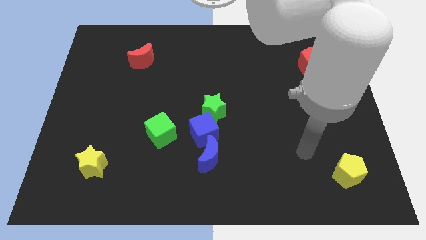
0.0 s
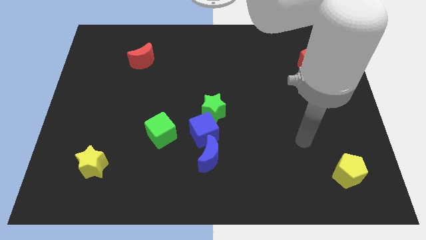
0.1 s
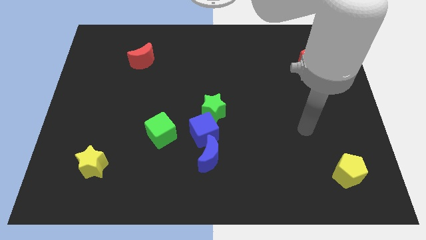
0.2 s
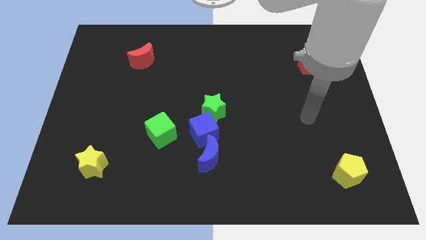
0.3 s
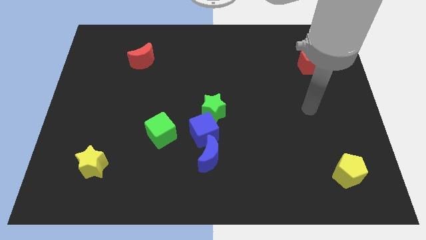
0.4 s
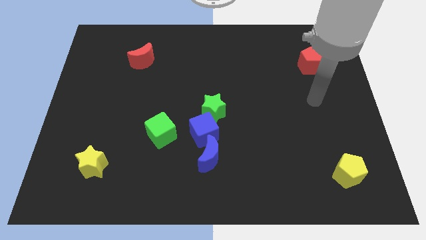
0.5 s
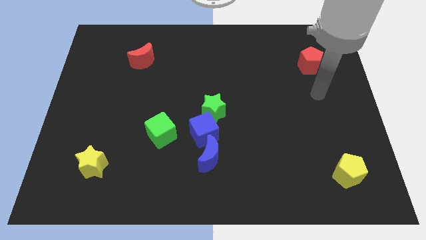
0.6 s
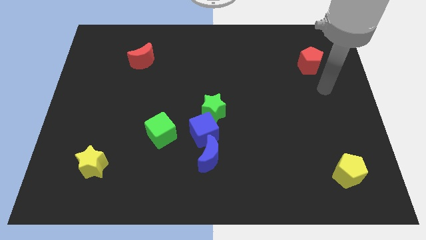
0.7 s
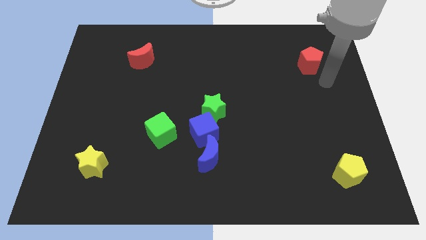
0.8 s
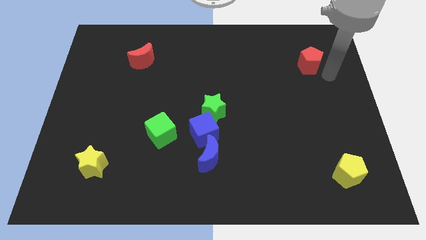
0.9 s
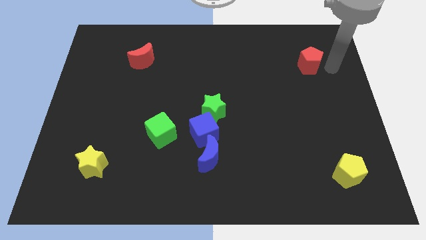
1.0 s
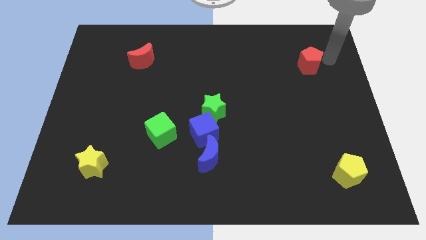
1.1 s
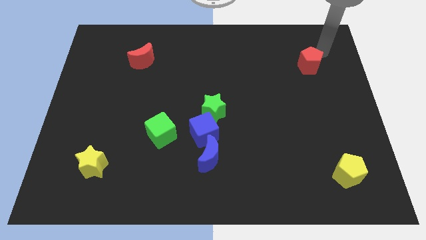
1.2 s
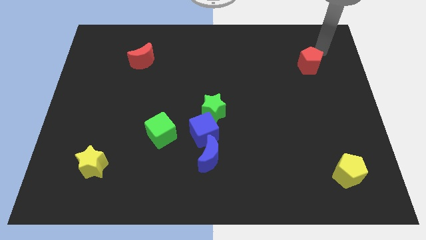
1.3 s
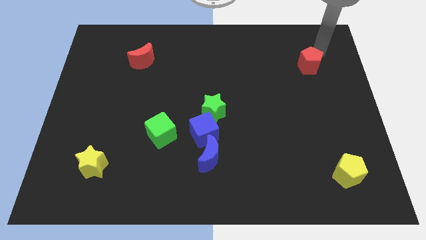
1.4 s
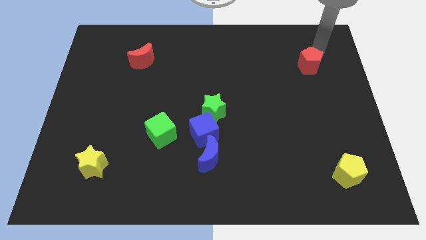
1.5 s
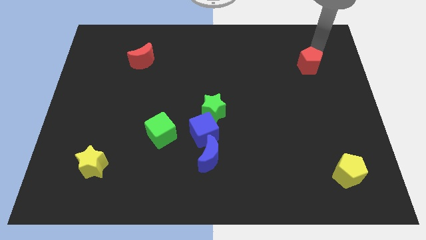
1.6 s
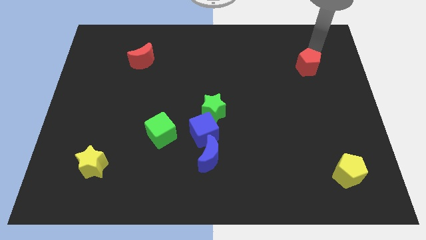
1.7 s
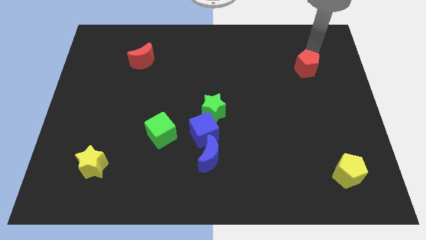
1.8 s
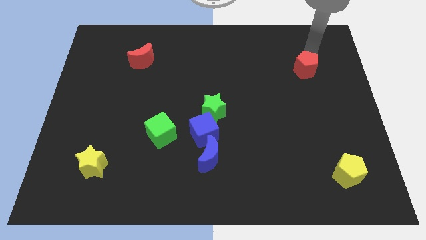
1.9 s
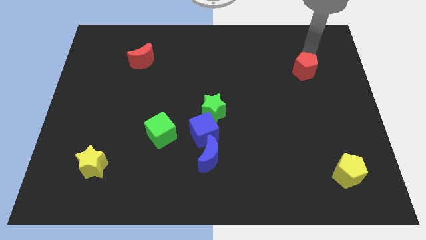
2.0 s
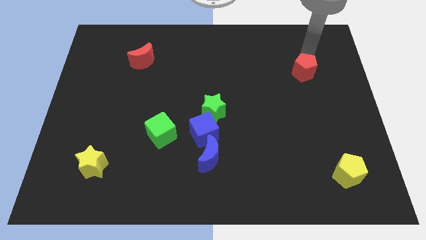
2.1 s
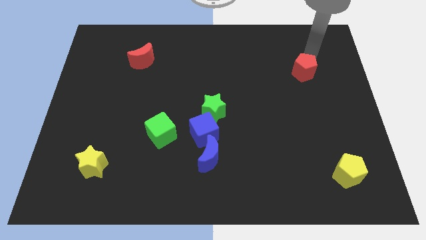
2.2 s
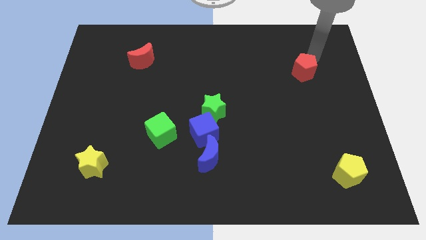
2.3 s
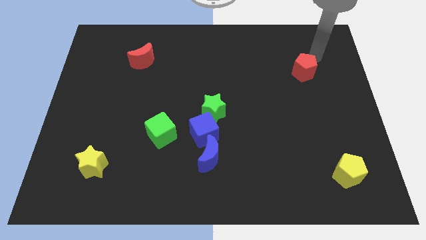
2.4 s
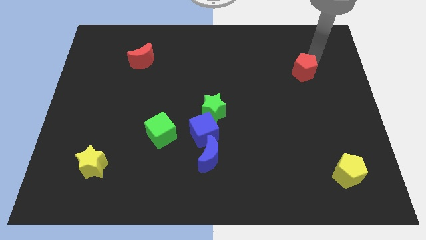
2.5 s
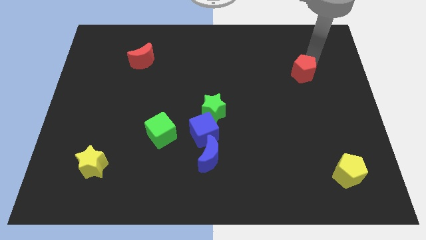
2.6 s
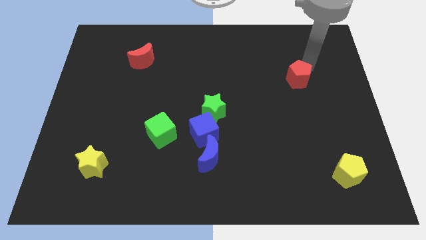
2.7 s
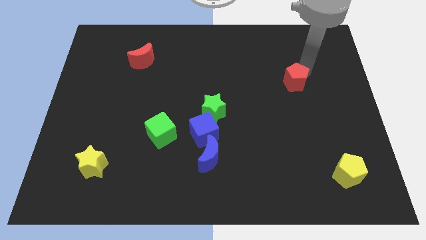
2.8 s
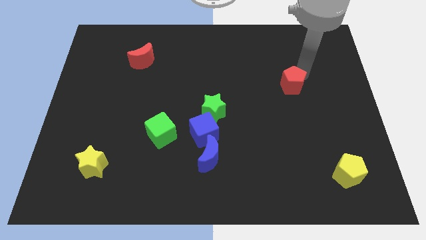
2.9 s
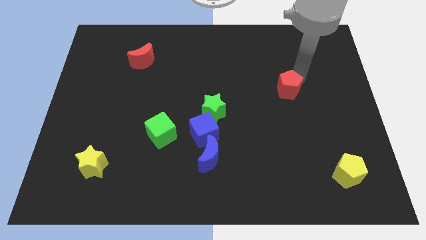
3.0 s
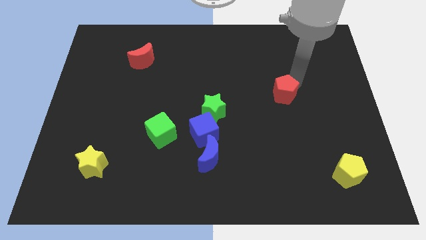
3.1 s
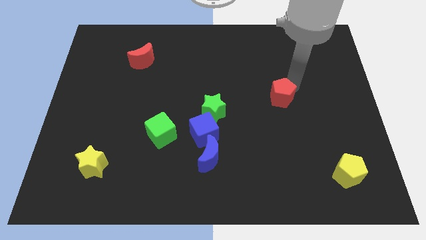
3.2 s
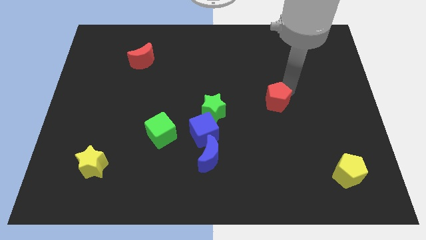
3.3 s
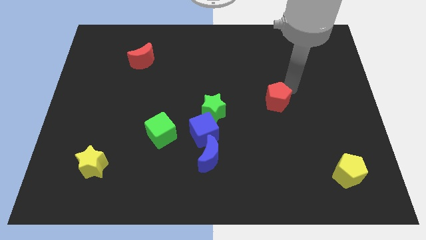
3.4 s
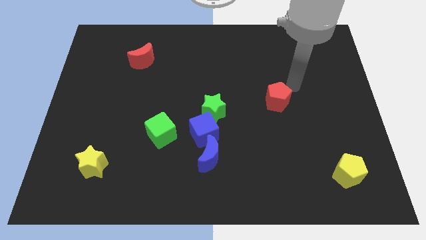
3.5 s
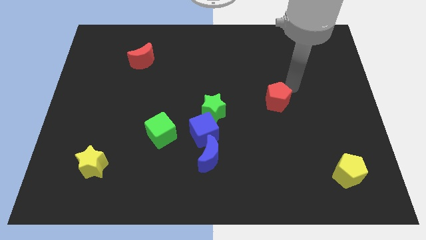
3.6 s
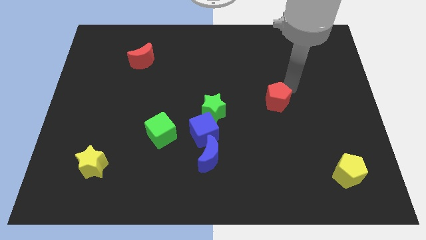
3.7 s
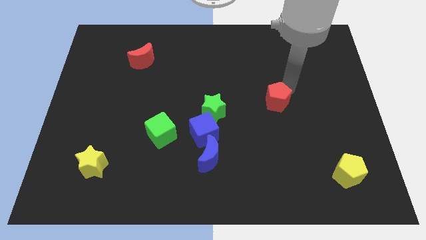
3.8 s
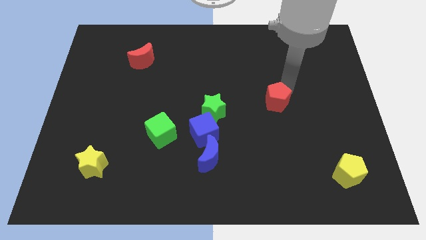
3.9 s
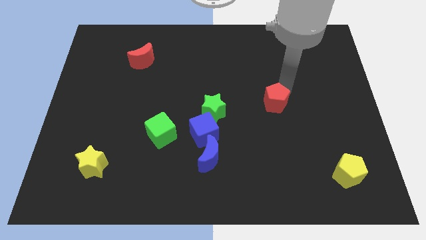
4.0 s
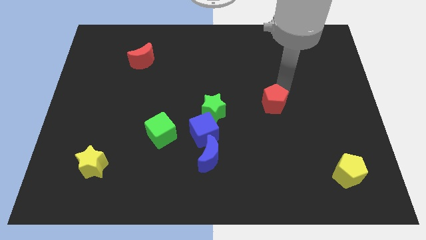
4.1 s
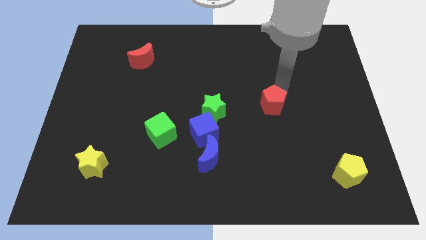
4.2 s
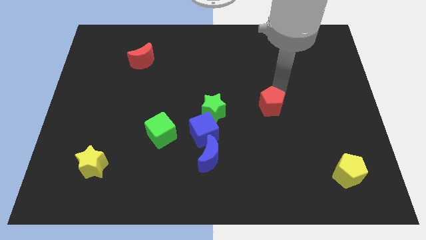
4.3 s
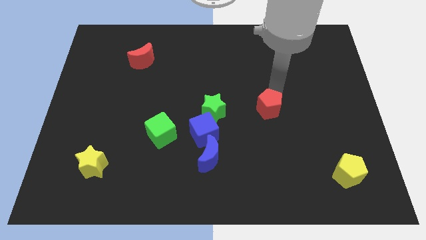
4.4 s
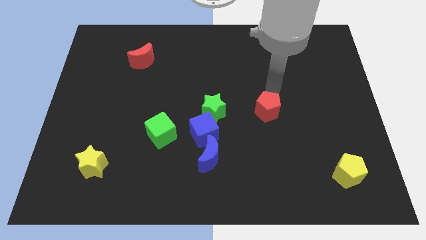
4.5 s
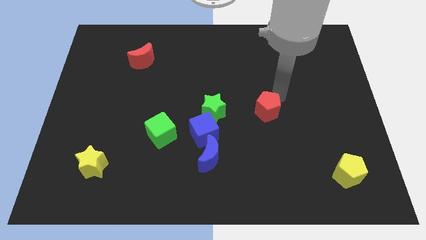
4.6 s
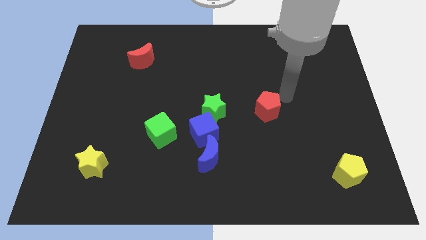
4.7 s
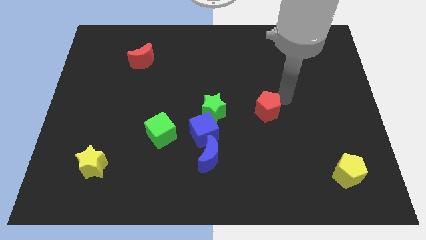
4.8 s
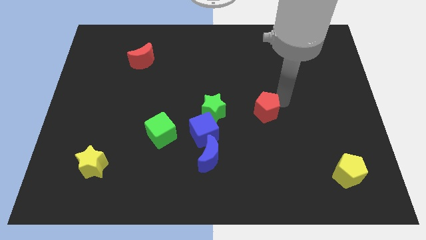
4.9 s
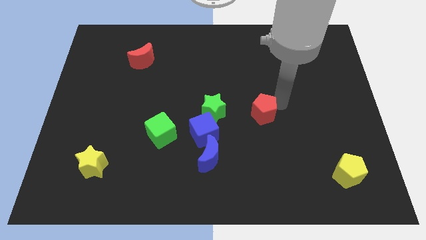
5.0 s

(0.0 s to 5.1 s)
slide the red pentagon down and to the left

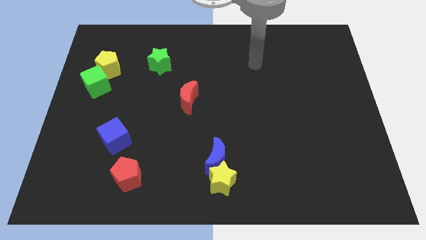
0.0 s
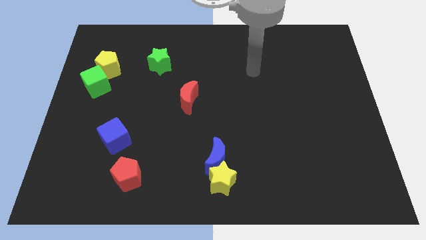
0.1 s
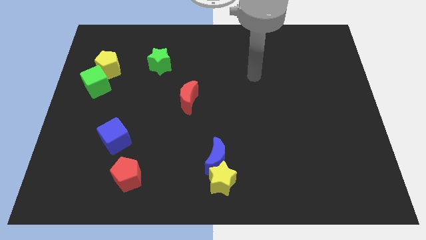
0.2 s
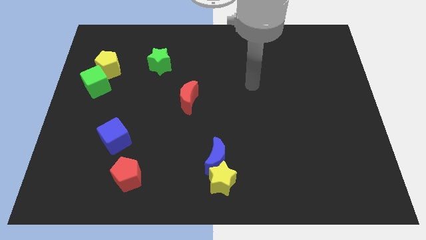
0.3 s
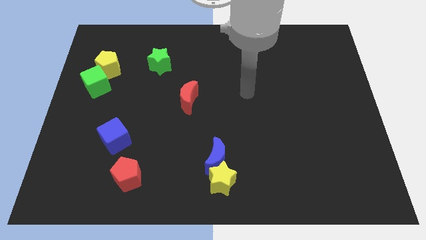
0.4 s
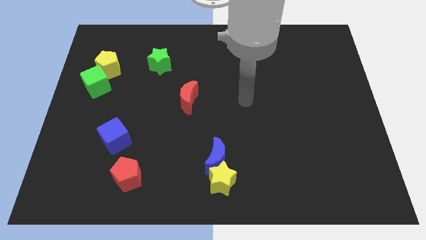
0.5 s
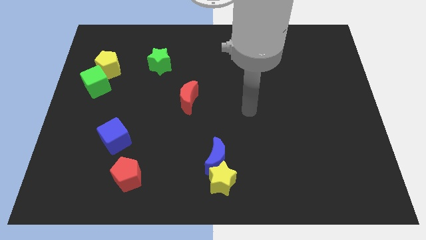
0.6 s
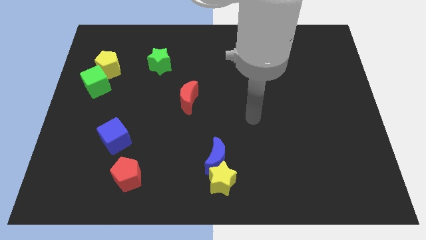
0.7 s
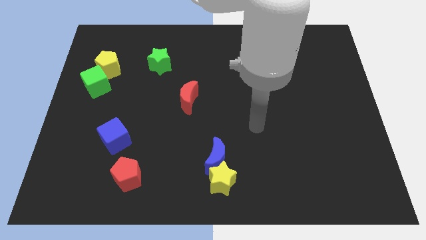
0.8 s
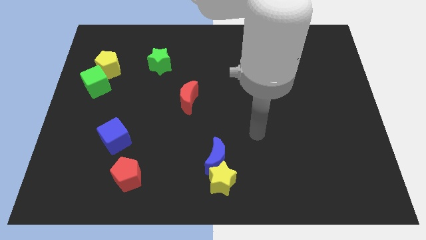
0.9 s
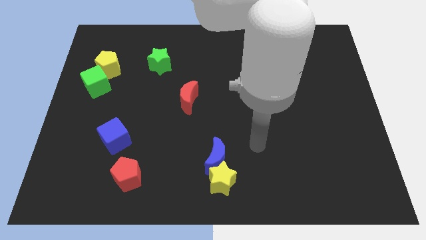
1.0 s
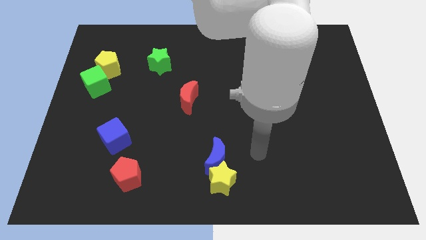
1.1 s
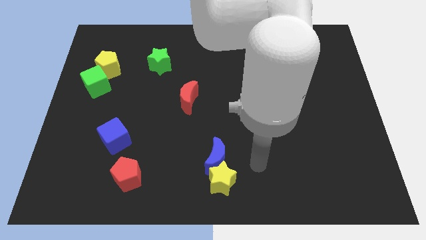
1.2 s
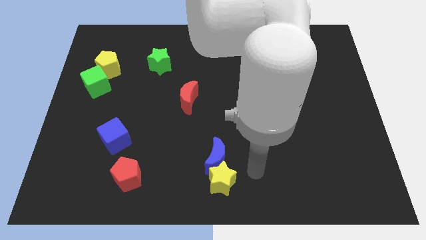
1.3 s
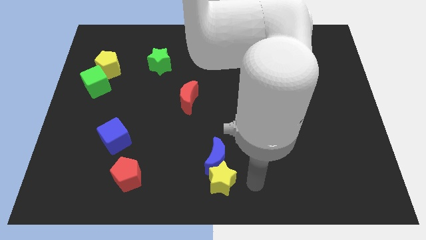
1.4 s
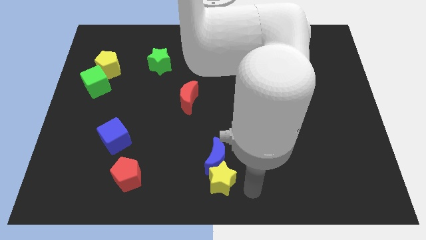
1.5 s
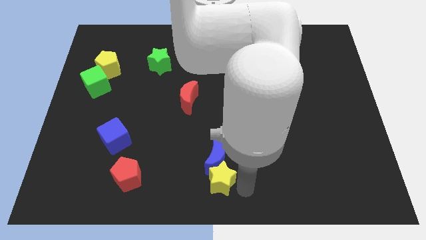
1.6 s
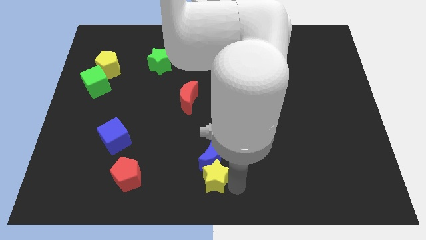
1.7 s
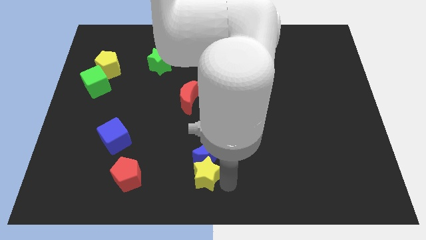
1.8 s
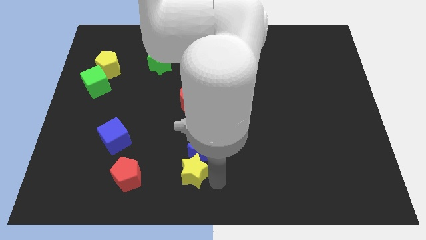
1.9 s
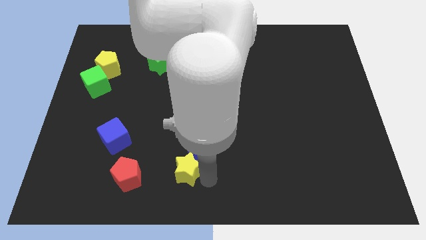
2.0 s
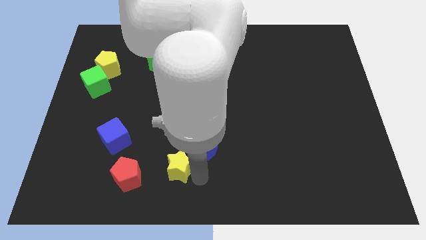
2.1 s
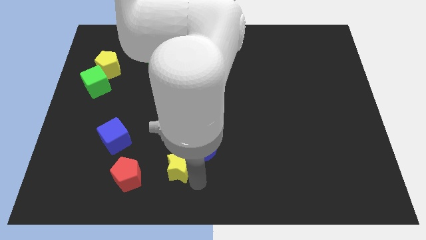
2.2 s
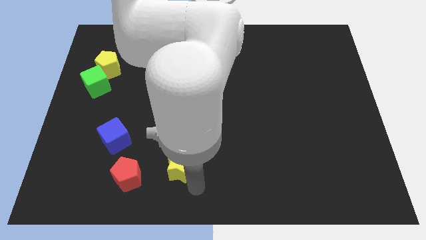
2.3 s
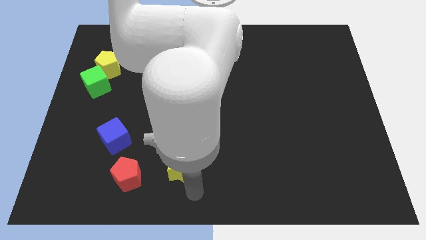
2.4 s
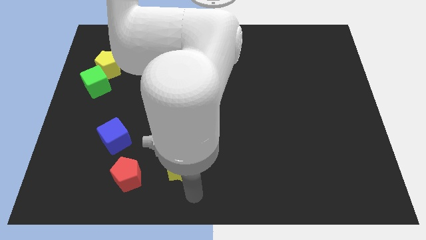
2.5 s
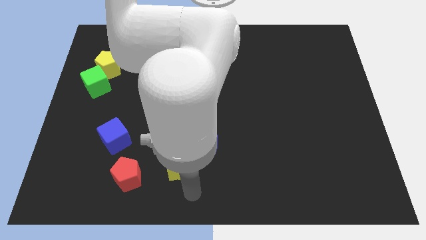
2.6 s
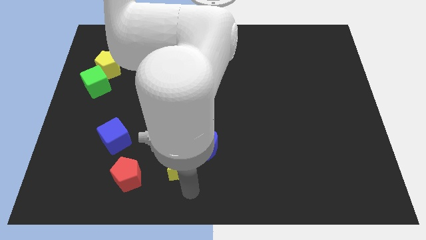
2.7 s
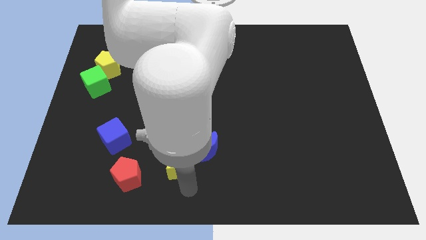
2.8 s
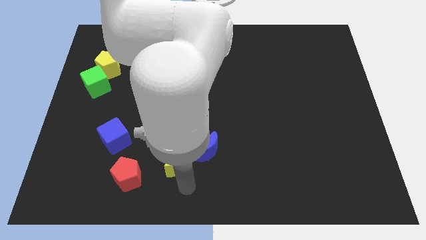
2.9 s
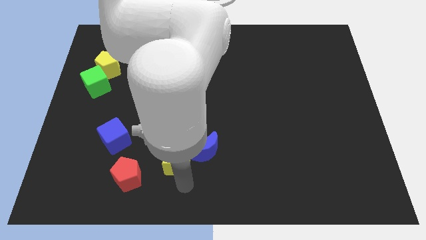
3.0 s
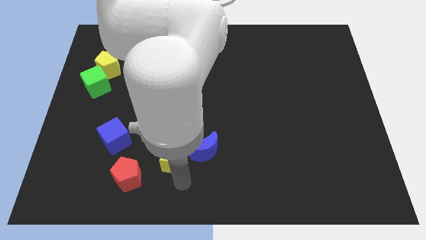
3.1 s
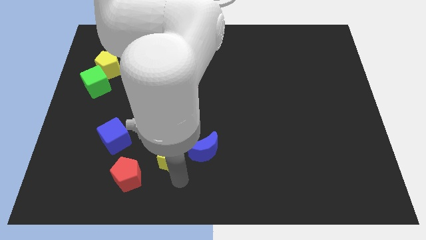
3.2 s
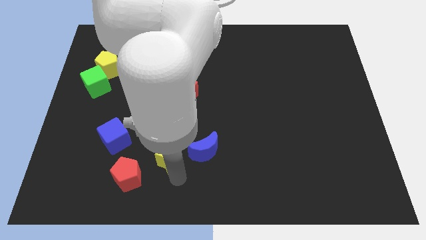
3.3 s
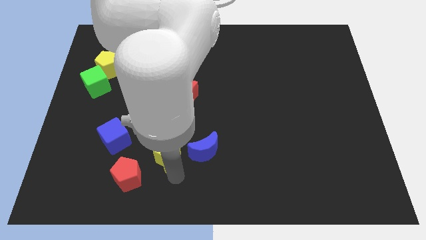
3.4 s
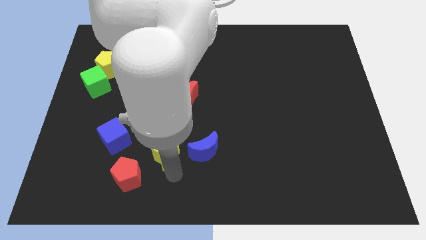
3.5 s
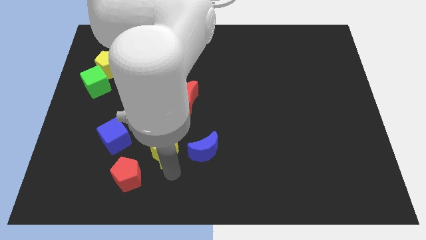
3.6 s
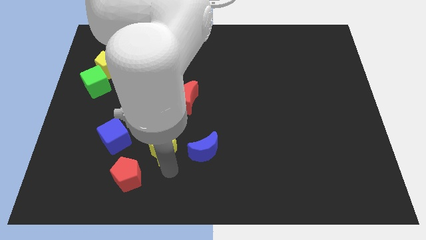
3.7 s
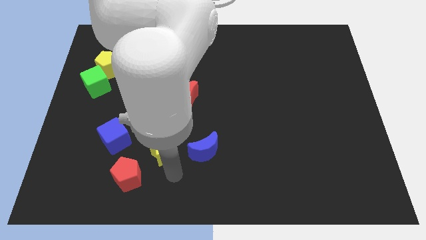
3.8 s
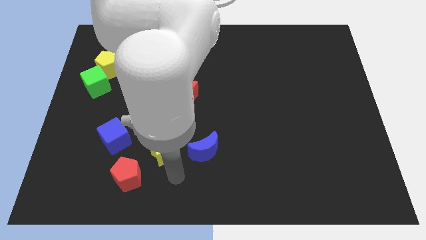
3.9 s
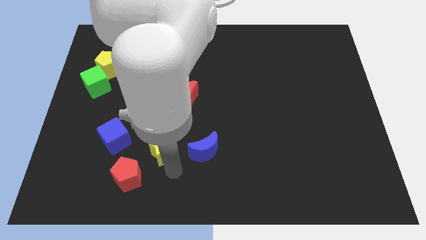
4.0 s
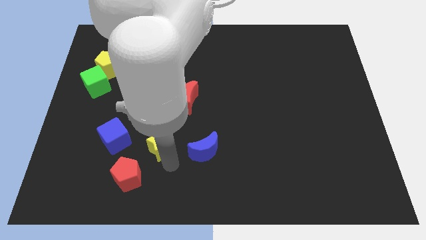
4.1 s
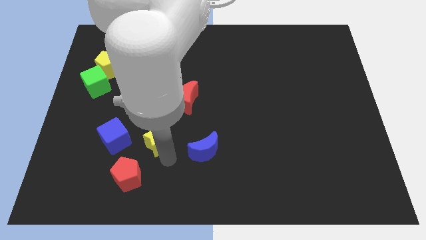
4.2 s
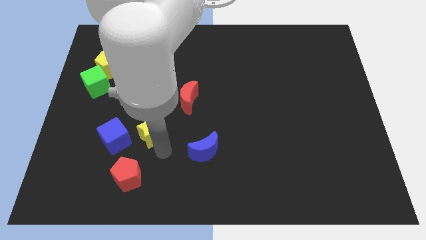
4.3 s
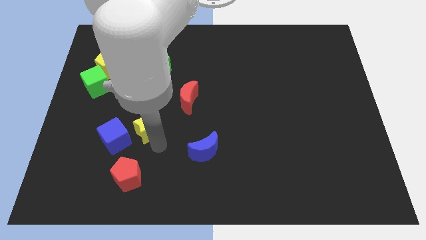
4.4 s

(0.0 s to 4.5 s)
move the yellow star up and left
